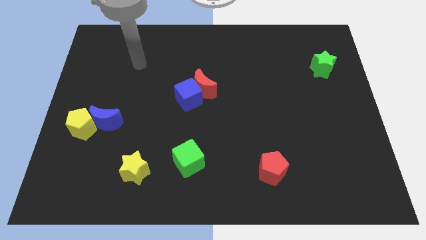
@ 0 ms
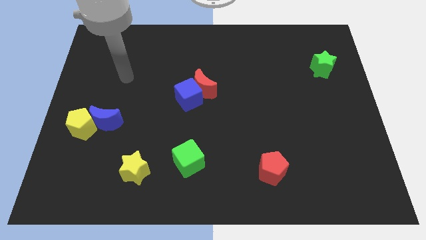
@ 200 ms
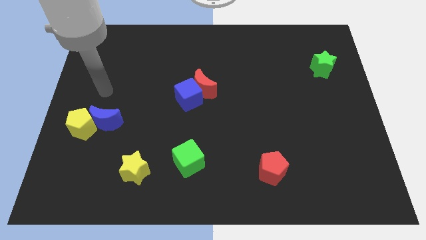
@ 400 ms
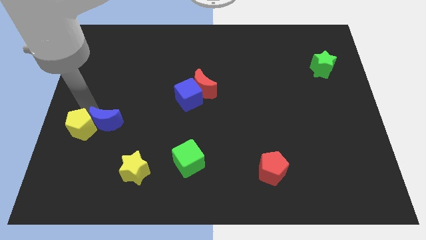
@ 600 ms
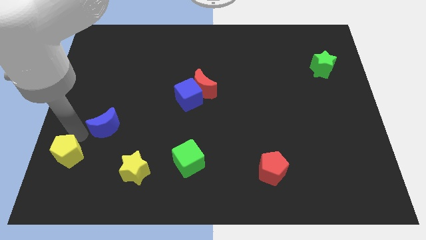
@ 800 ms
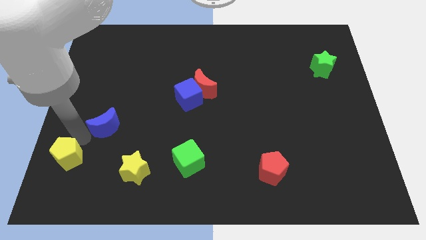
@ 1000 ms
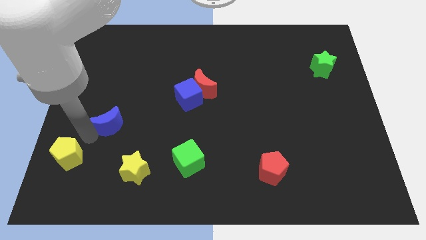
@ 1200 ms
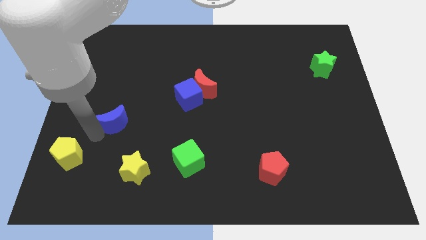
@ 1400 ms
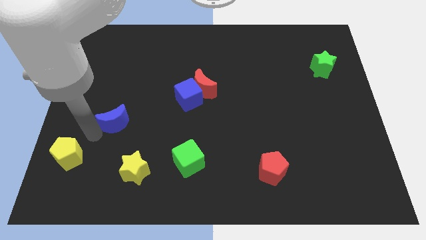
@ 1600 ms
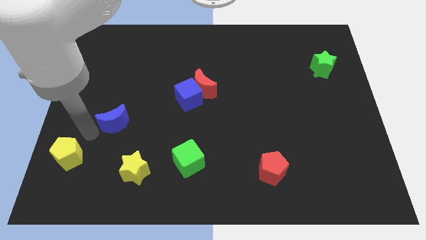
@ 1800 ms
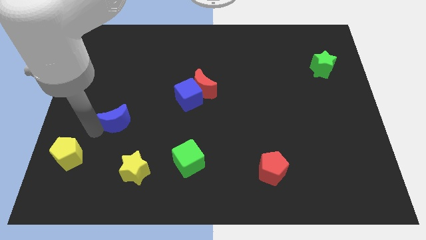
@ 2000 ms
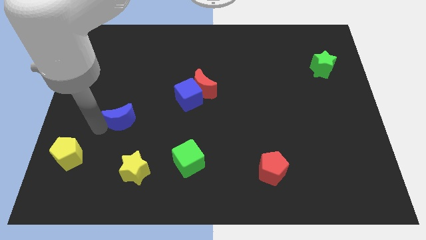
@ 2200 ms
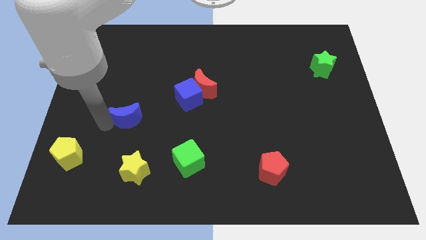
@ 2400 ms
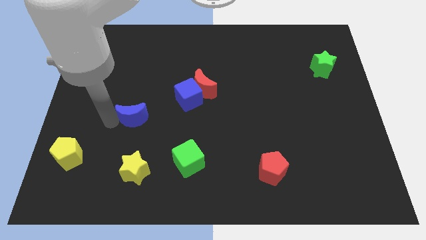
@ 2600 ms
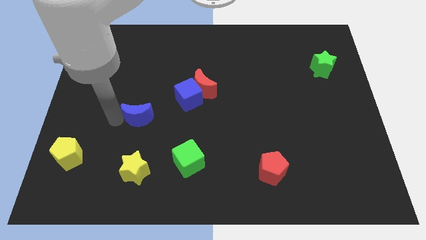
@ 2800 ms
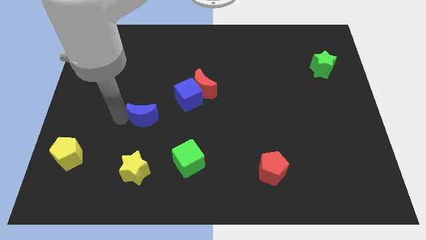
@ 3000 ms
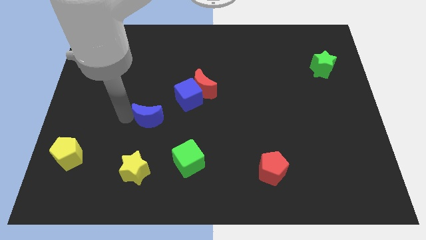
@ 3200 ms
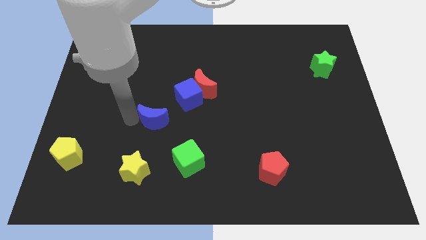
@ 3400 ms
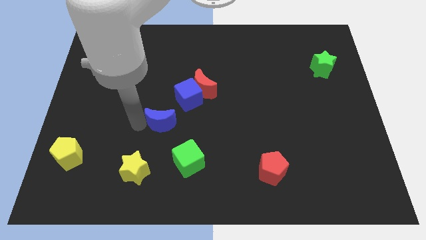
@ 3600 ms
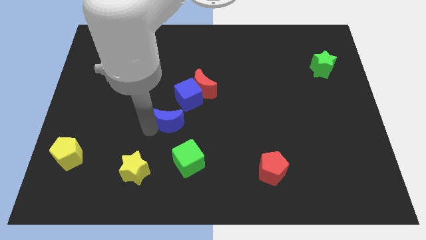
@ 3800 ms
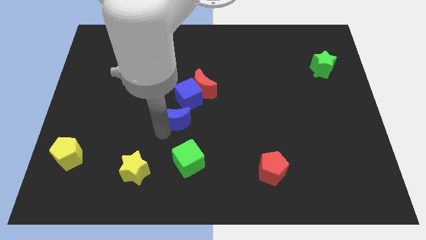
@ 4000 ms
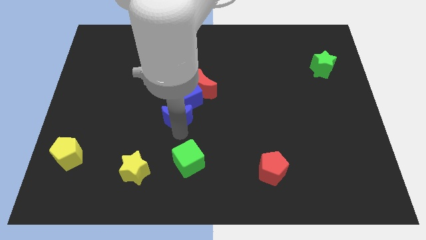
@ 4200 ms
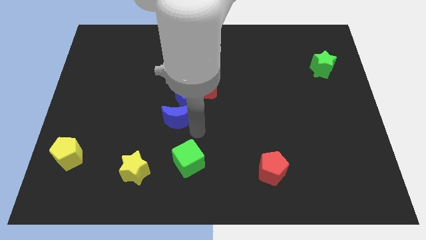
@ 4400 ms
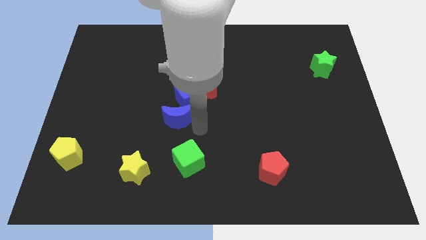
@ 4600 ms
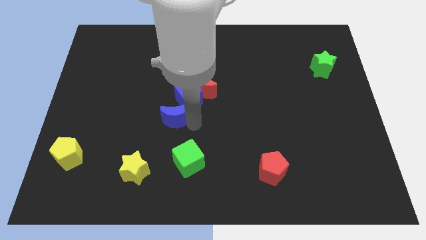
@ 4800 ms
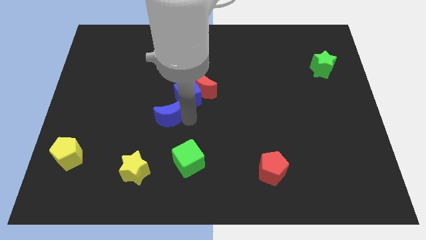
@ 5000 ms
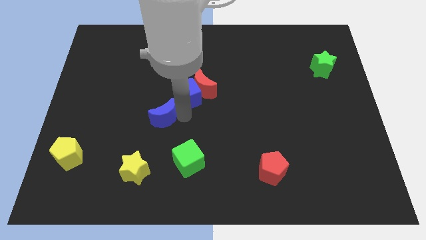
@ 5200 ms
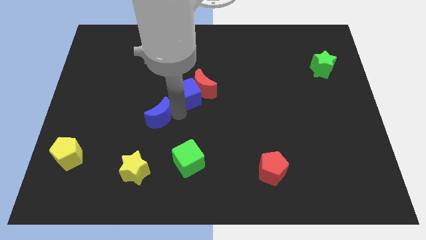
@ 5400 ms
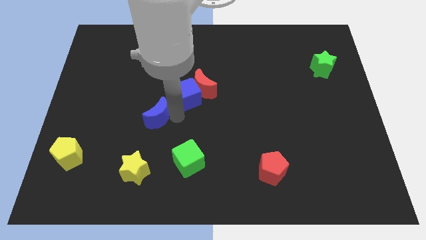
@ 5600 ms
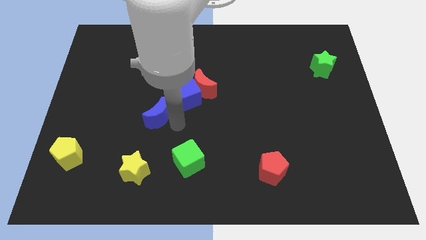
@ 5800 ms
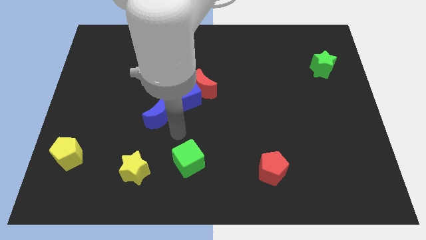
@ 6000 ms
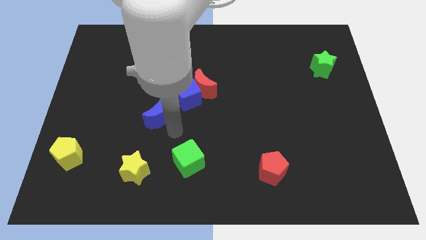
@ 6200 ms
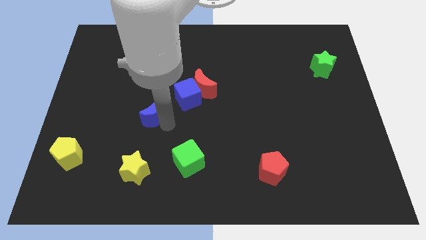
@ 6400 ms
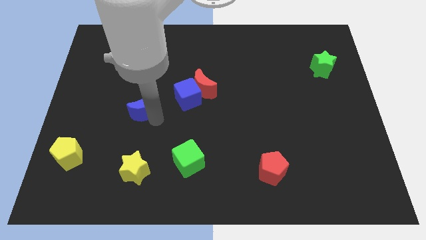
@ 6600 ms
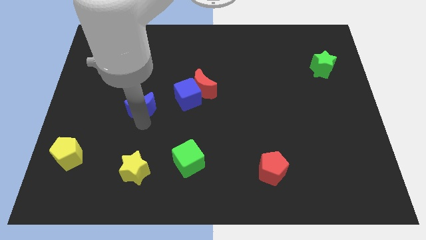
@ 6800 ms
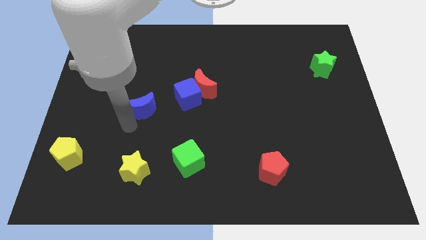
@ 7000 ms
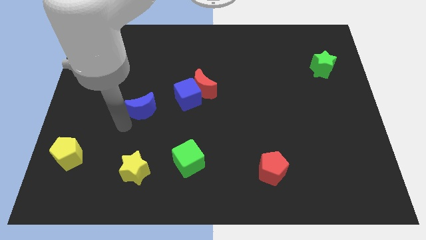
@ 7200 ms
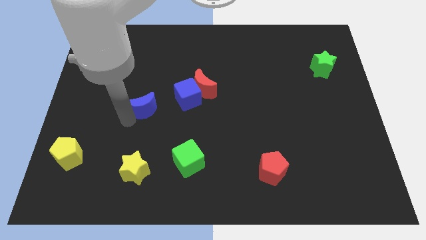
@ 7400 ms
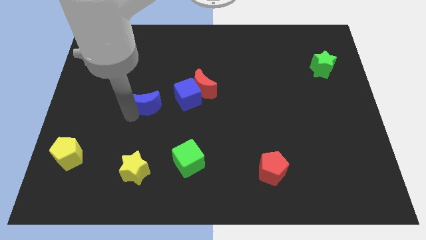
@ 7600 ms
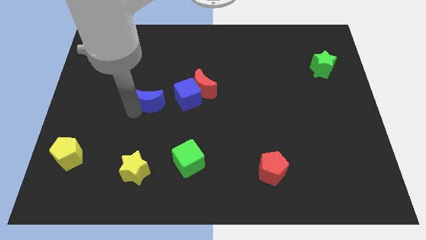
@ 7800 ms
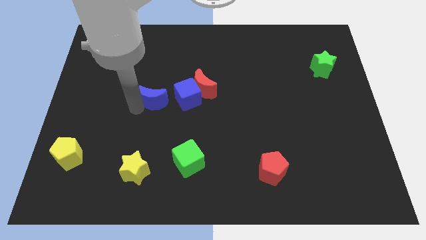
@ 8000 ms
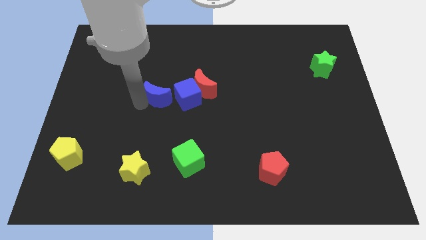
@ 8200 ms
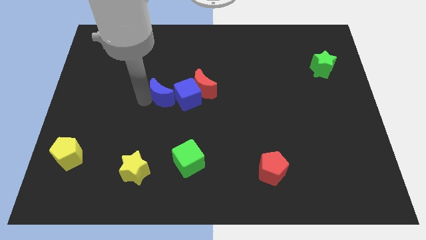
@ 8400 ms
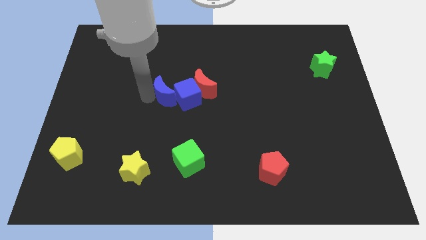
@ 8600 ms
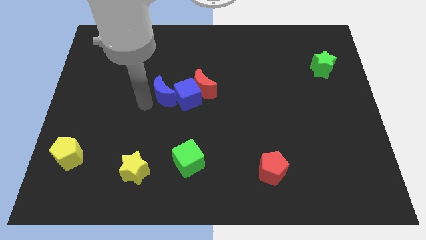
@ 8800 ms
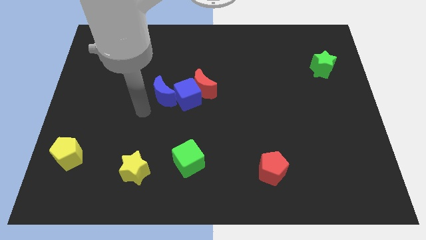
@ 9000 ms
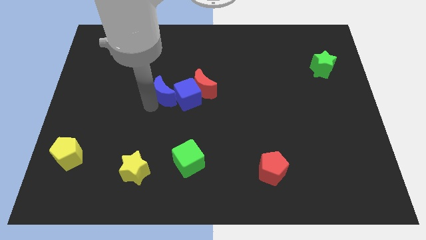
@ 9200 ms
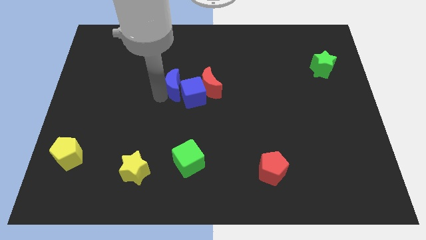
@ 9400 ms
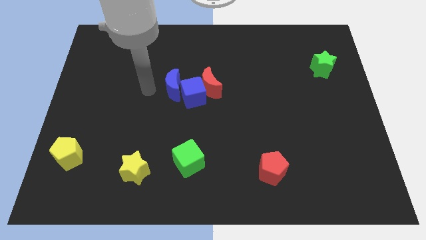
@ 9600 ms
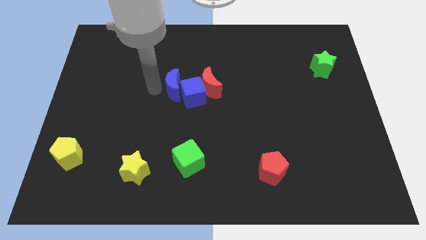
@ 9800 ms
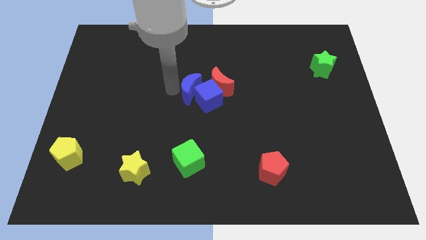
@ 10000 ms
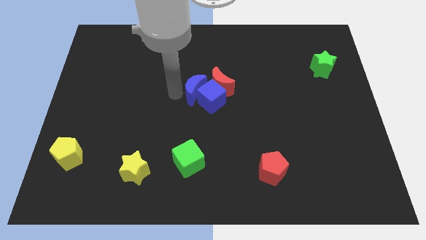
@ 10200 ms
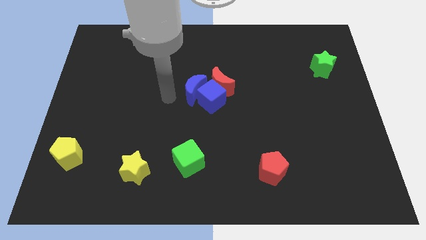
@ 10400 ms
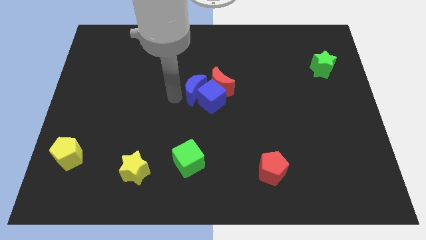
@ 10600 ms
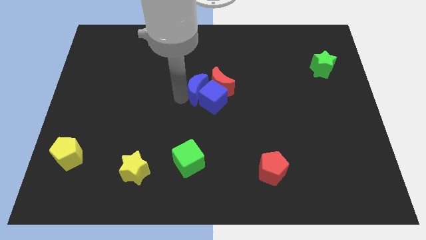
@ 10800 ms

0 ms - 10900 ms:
push the blue moon next to the red moon

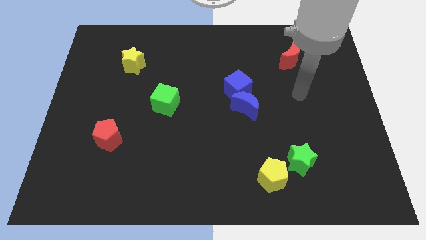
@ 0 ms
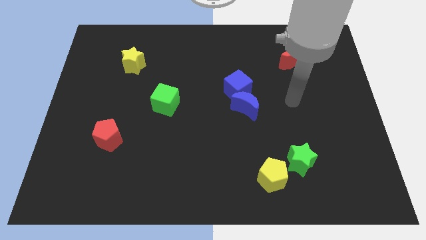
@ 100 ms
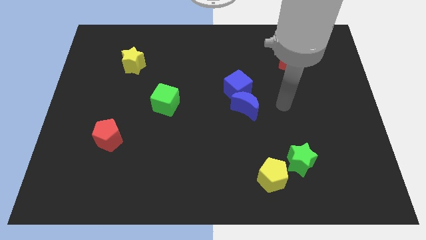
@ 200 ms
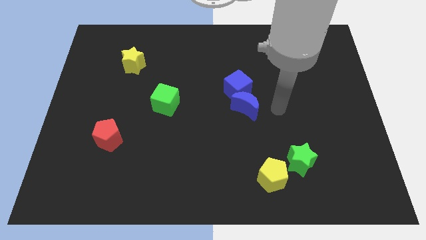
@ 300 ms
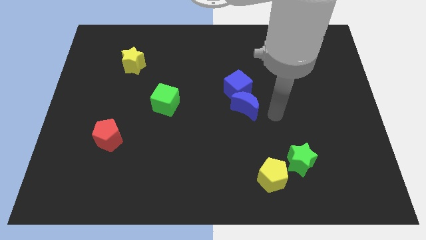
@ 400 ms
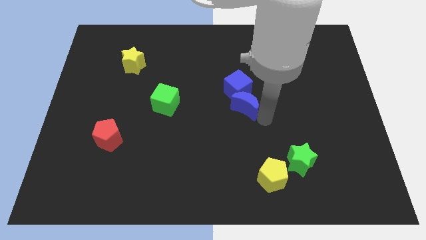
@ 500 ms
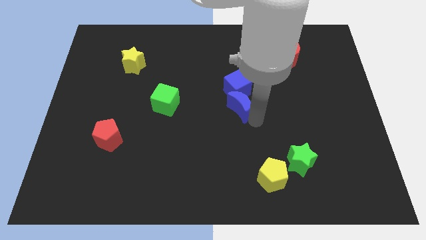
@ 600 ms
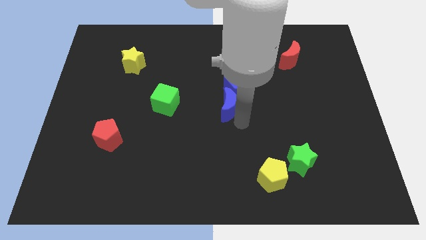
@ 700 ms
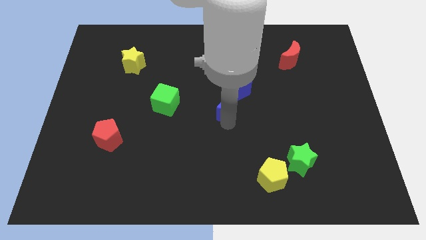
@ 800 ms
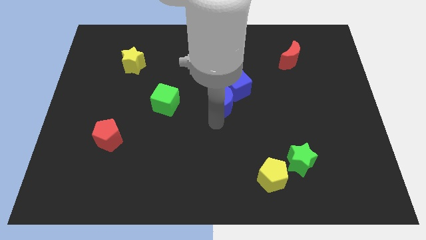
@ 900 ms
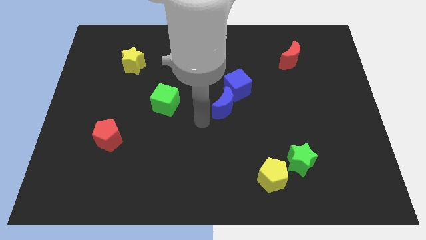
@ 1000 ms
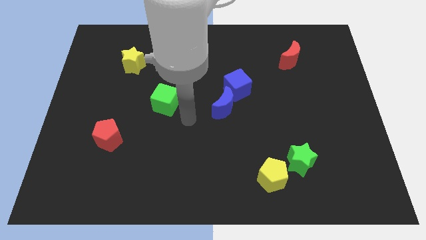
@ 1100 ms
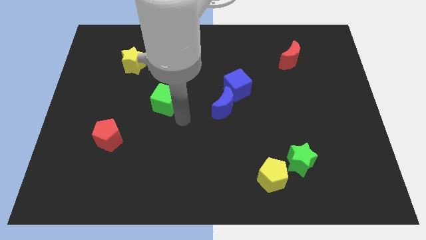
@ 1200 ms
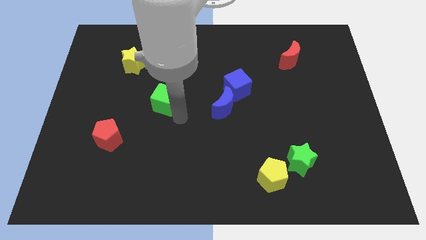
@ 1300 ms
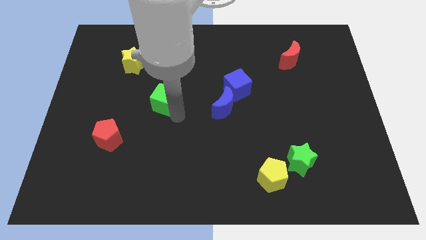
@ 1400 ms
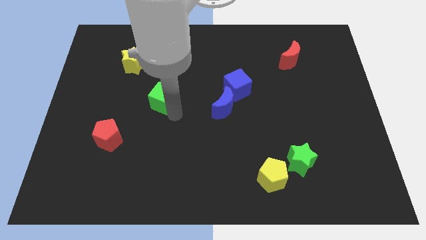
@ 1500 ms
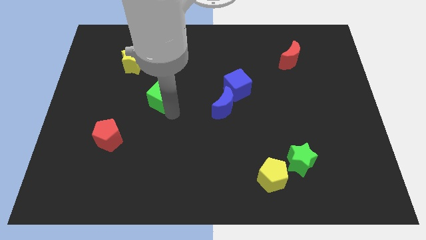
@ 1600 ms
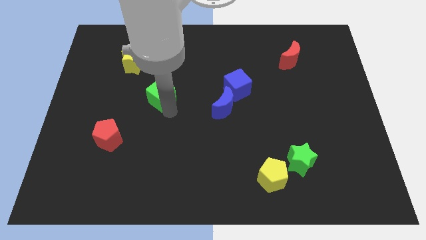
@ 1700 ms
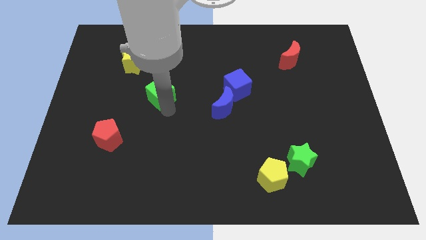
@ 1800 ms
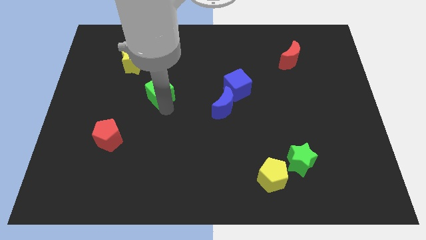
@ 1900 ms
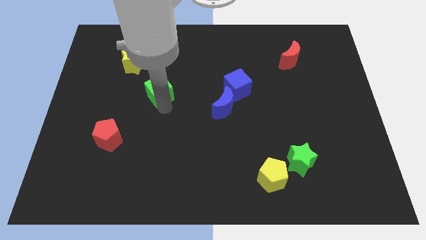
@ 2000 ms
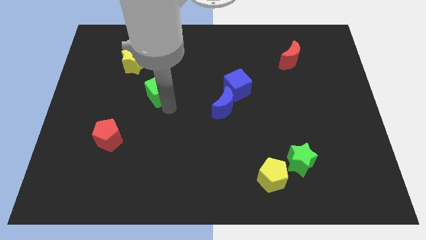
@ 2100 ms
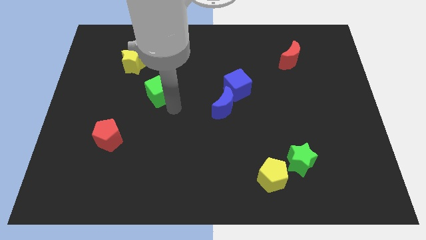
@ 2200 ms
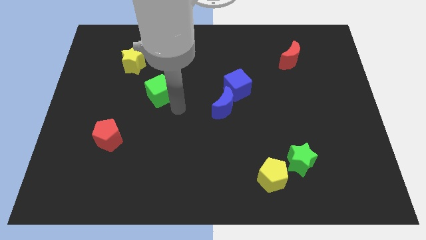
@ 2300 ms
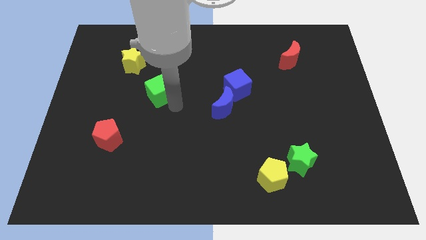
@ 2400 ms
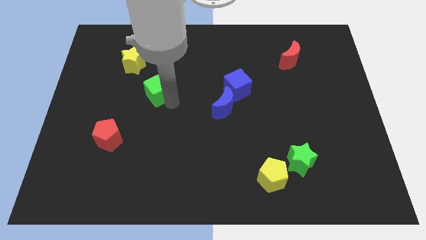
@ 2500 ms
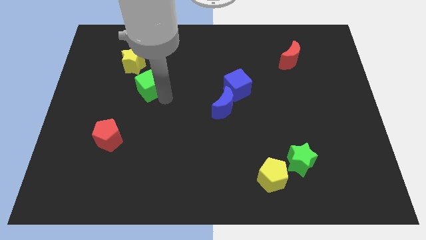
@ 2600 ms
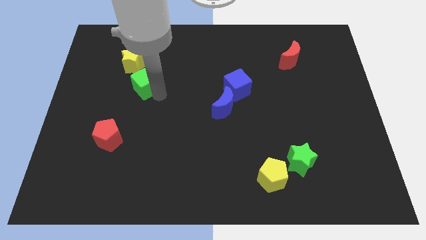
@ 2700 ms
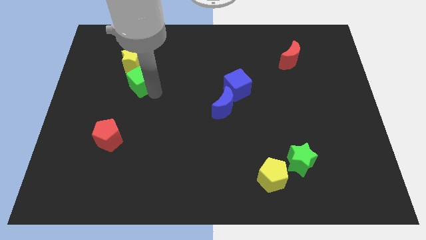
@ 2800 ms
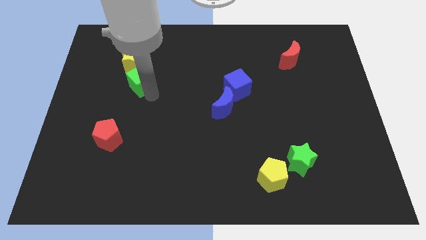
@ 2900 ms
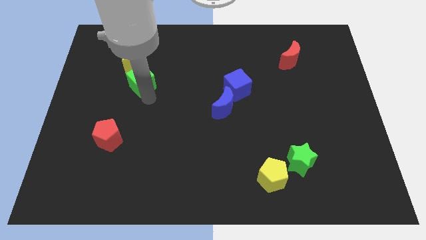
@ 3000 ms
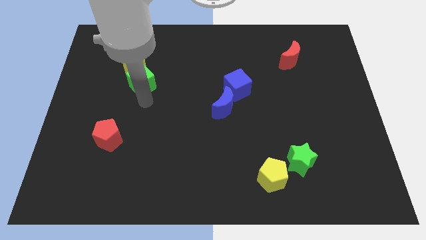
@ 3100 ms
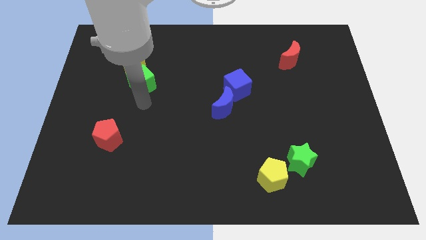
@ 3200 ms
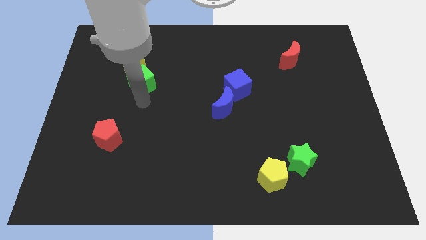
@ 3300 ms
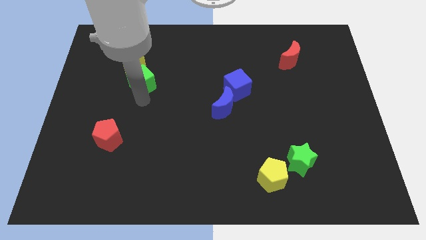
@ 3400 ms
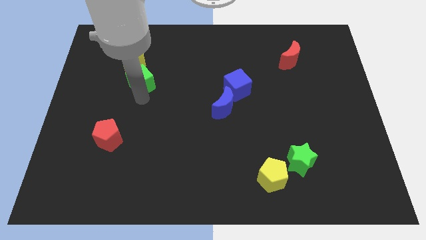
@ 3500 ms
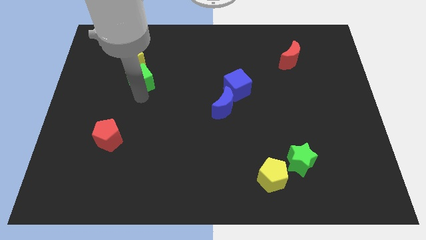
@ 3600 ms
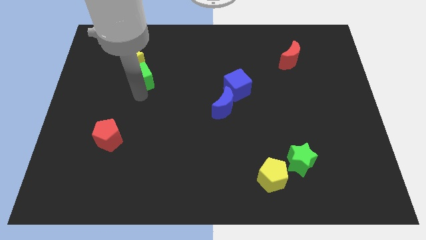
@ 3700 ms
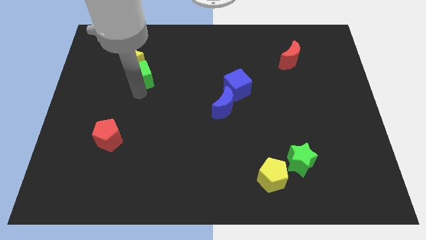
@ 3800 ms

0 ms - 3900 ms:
push the green cube close to the yellow star
